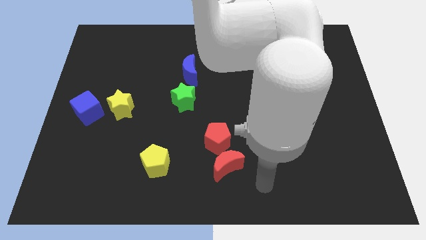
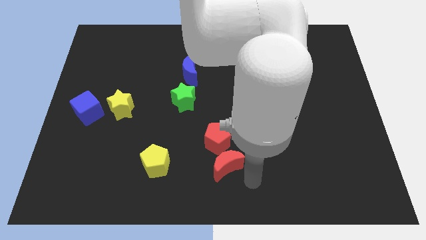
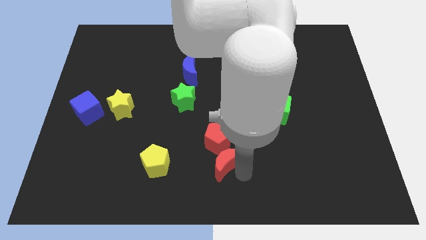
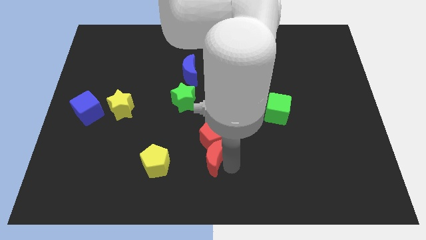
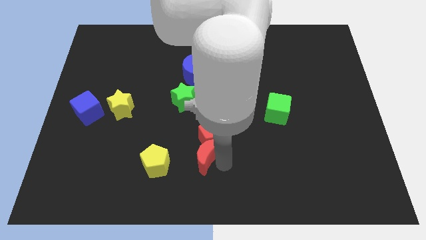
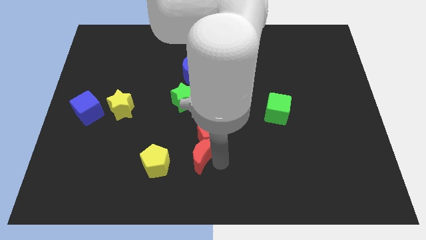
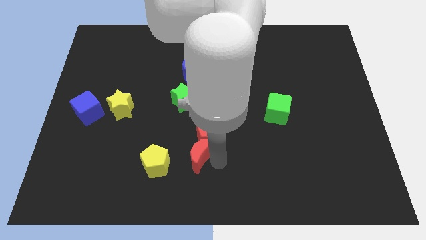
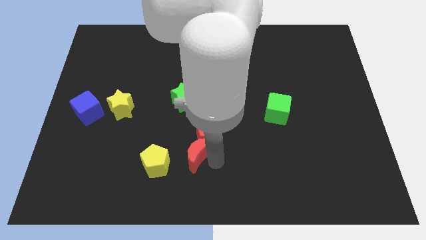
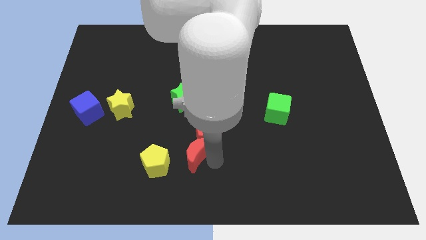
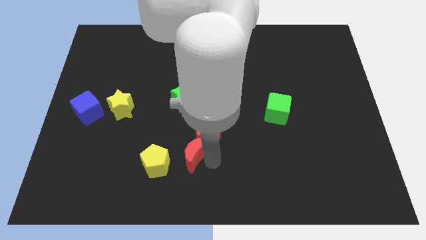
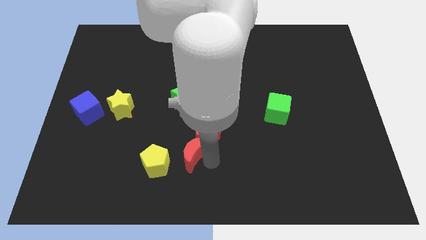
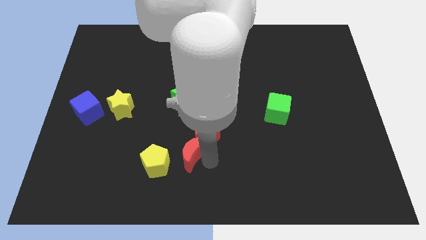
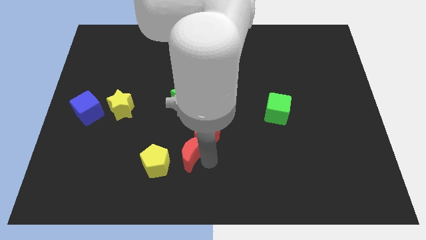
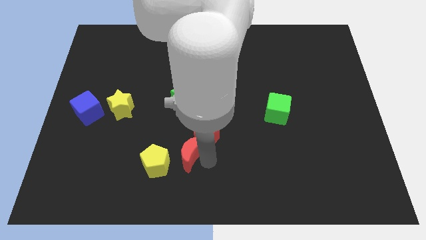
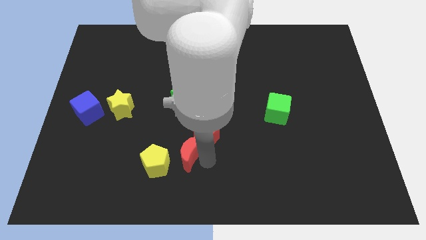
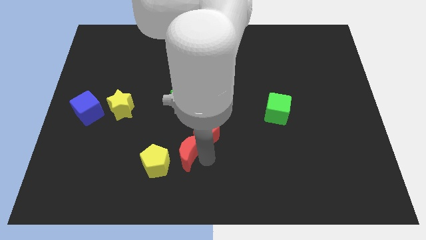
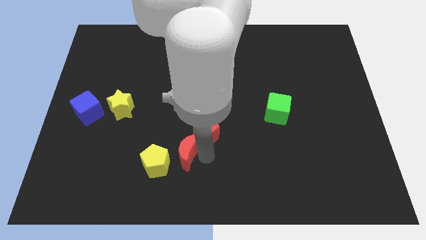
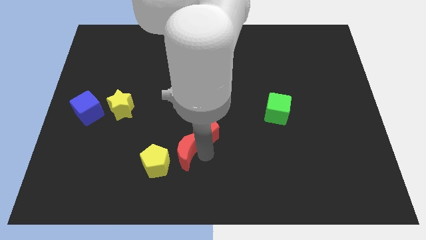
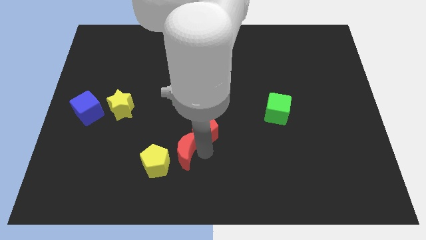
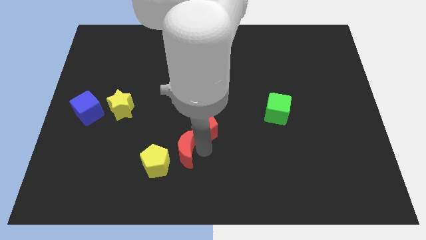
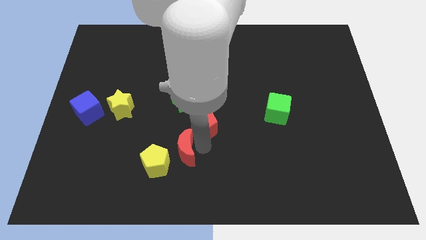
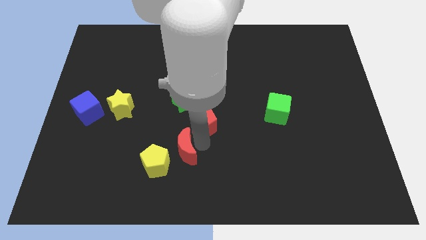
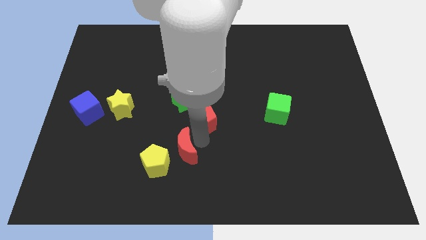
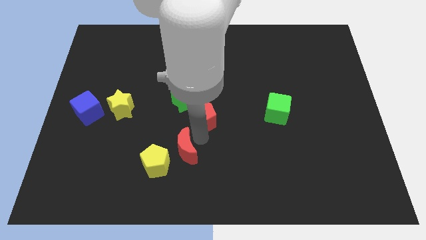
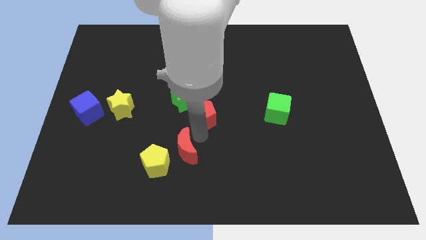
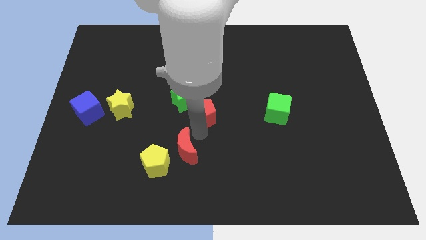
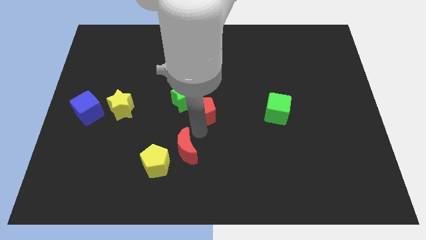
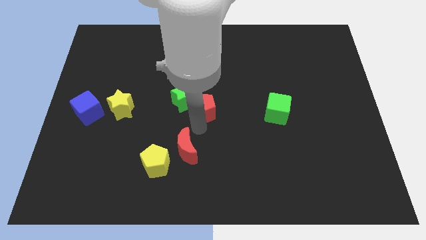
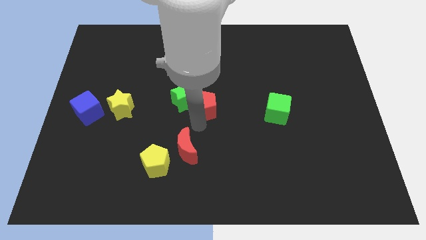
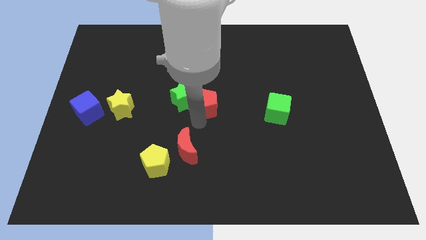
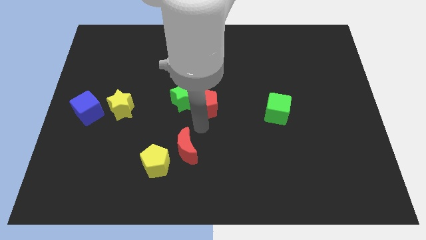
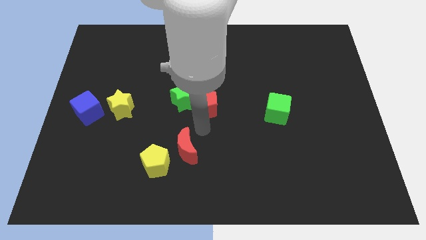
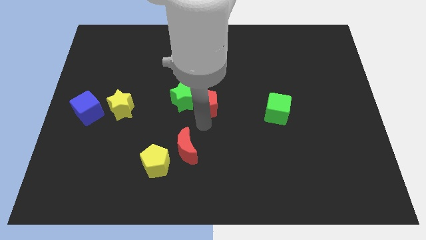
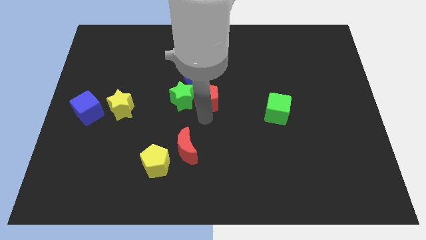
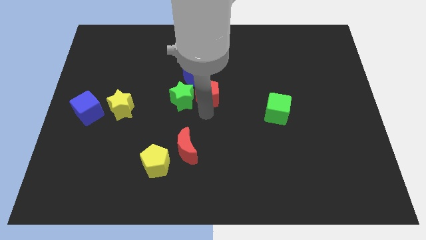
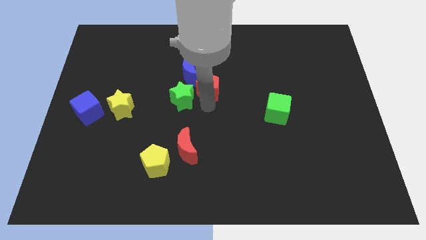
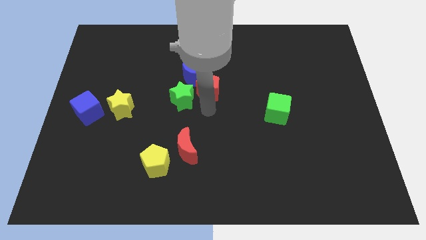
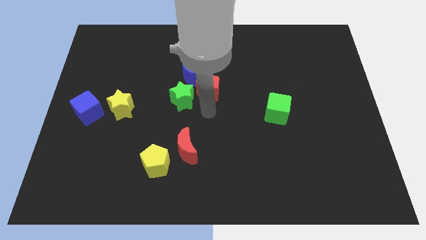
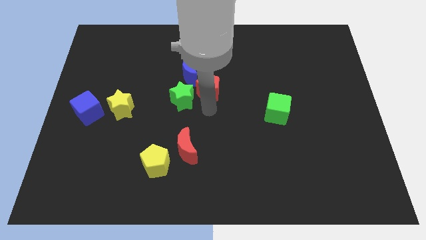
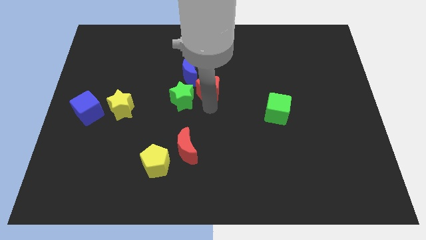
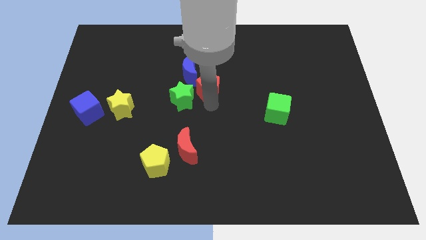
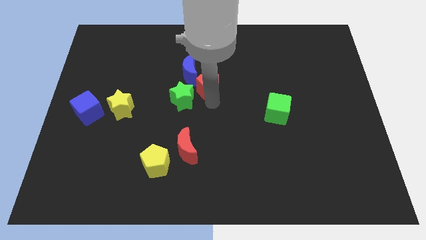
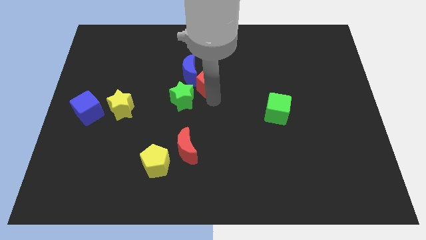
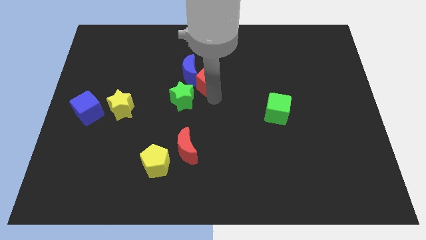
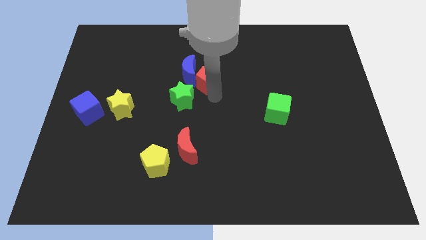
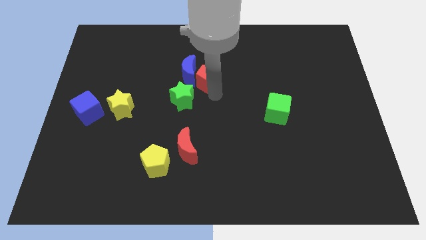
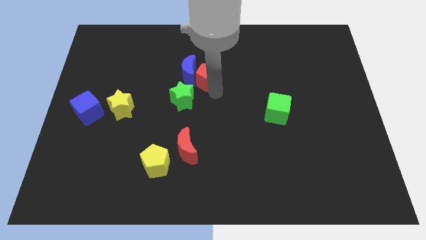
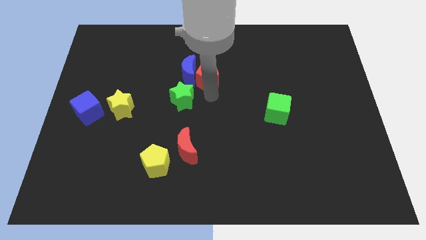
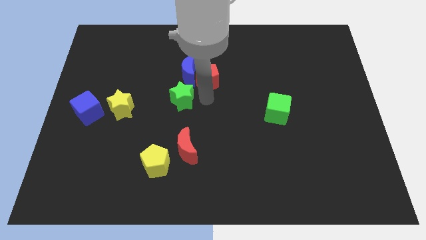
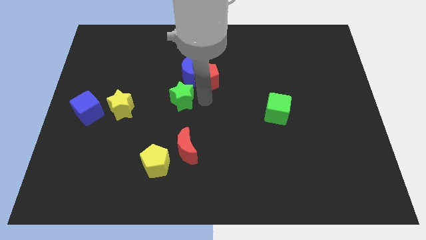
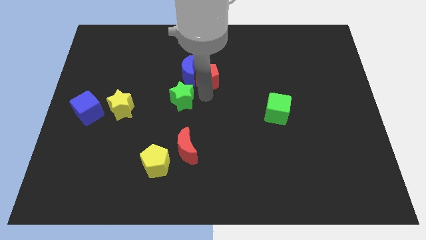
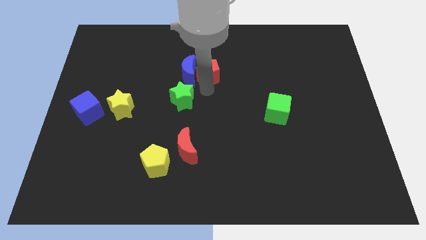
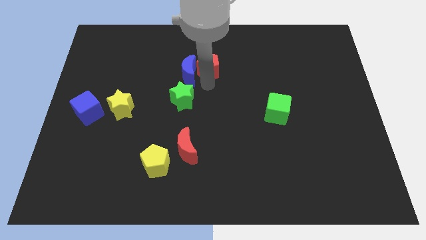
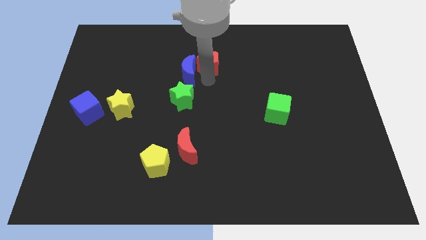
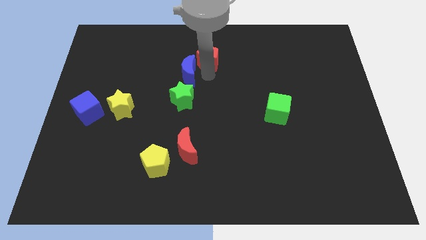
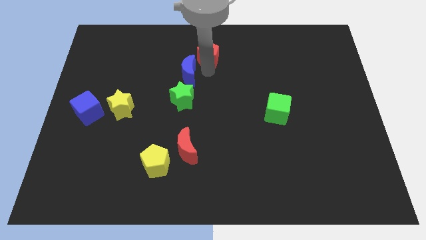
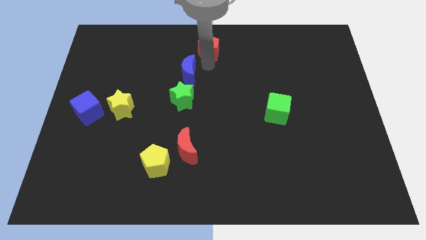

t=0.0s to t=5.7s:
move the red pentagon to the top side

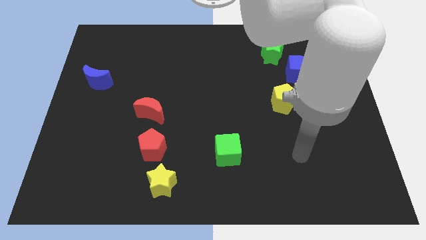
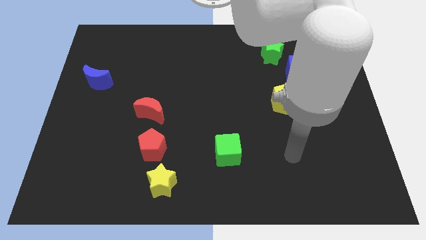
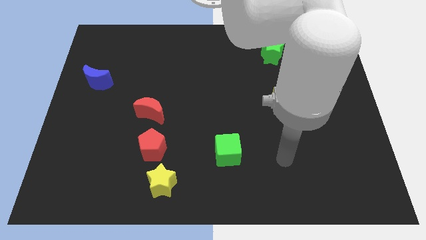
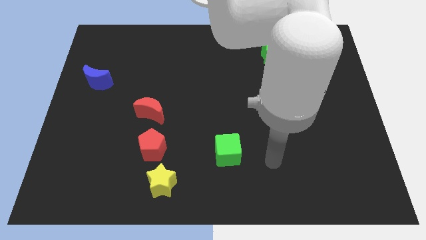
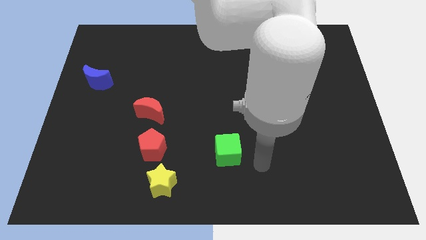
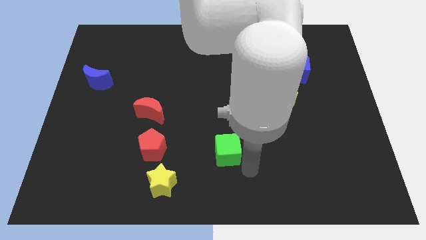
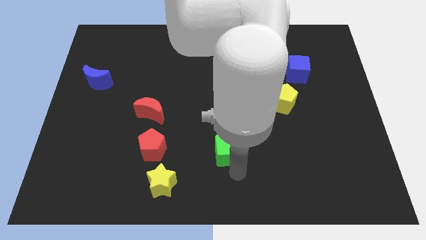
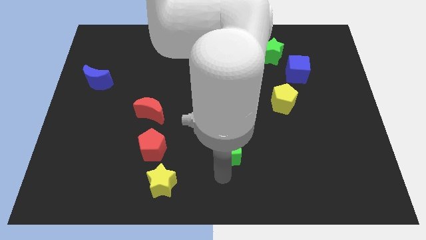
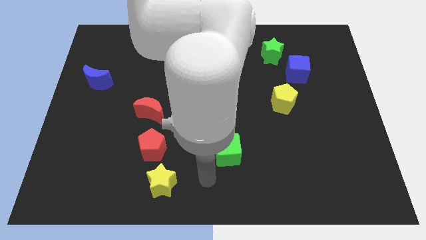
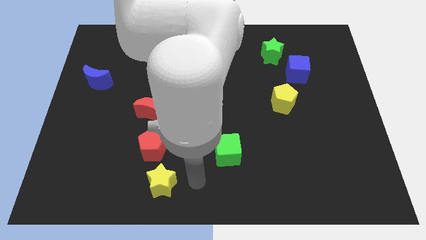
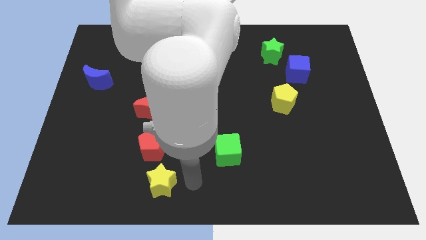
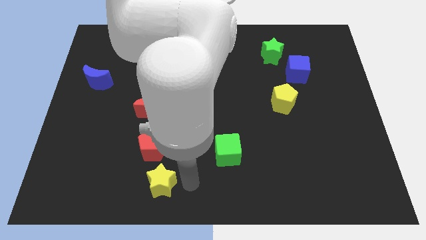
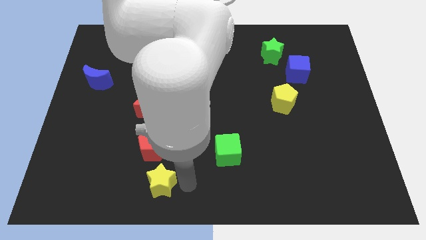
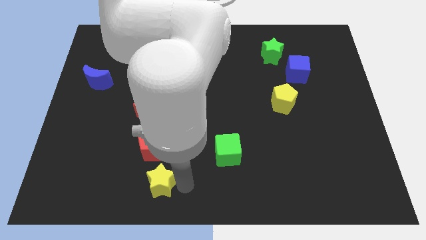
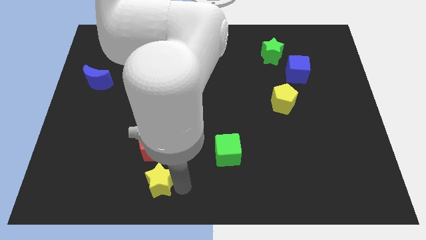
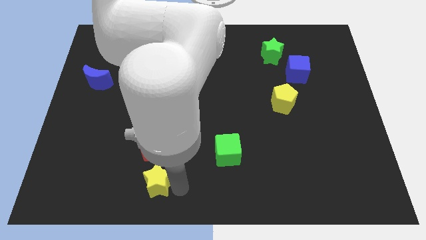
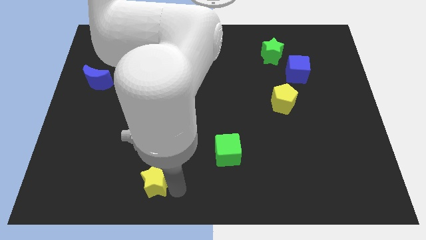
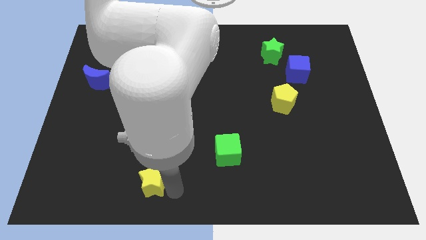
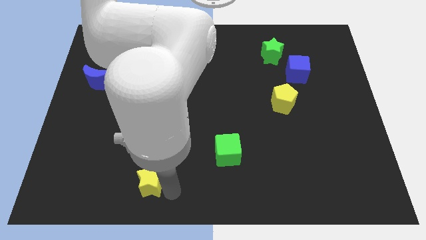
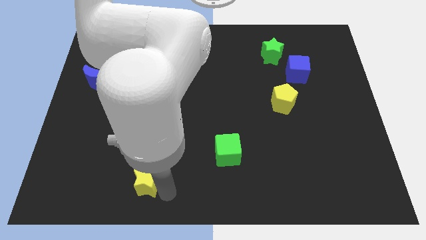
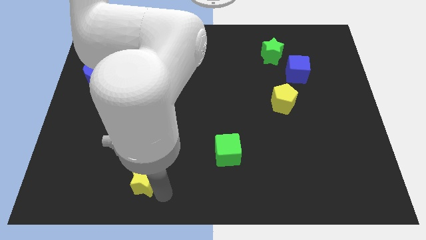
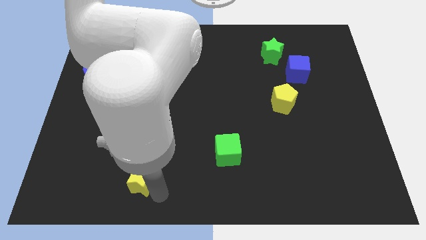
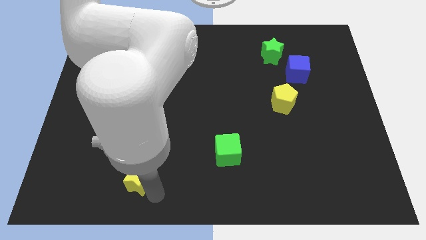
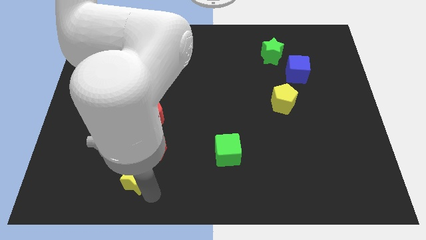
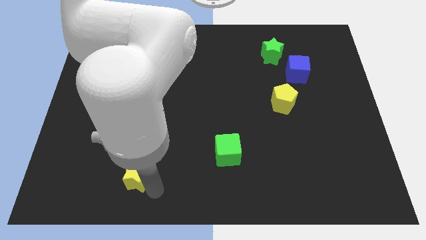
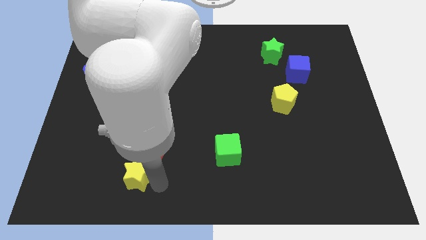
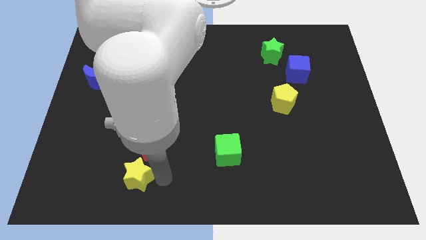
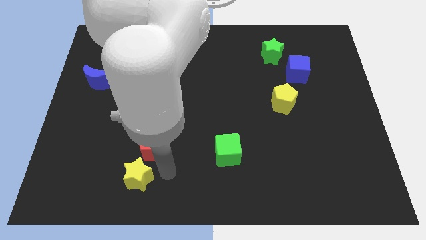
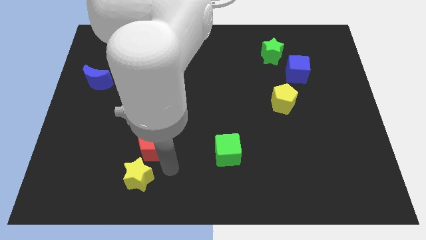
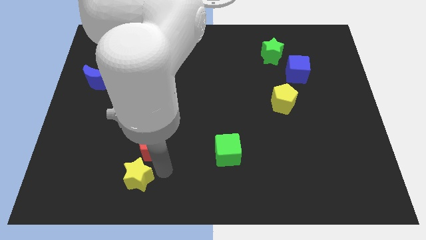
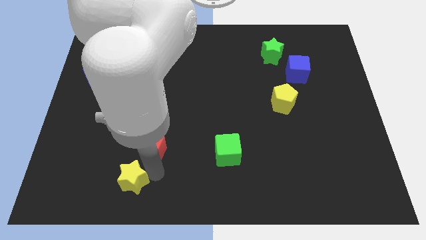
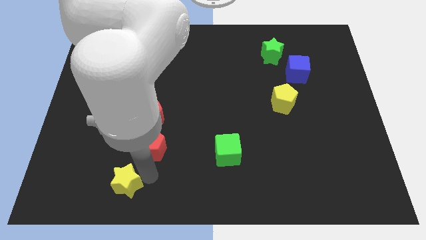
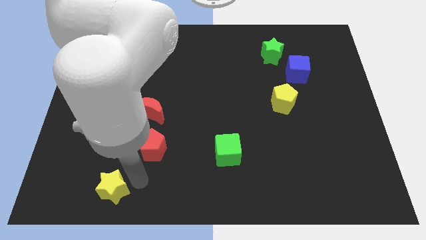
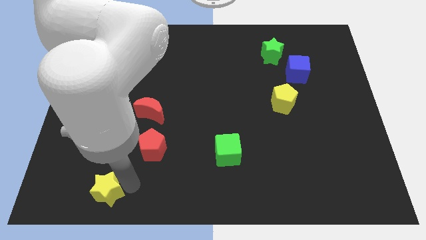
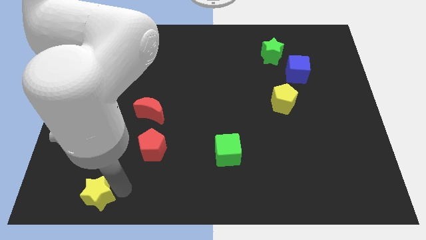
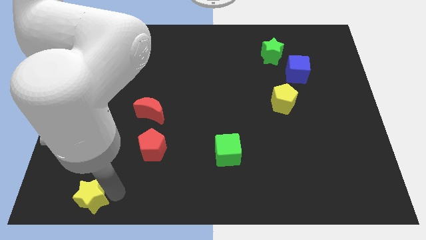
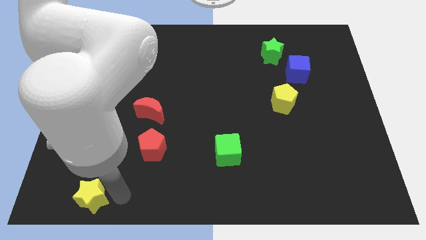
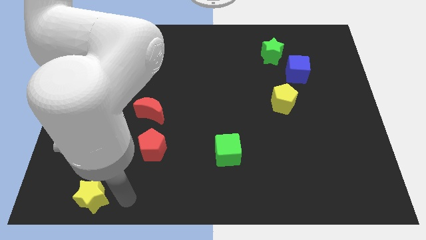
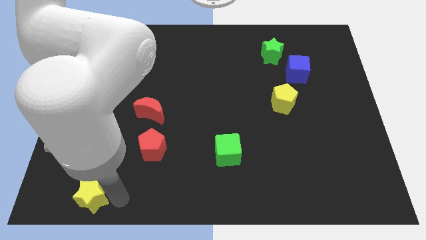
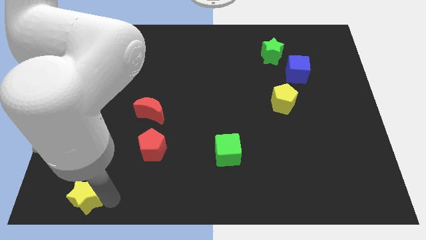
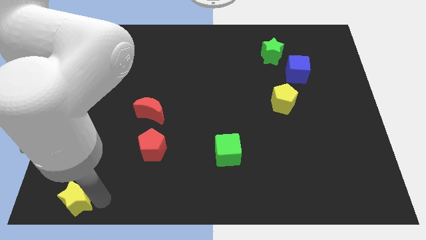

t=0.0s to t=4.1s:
move the yellow star to the bottom left of the board
